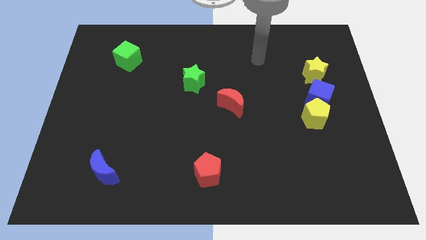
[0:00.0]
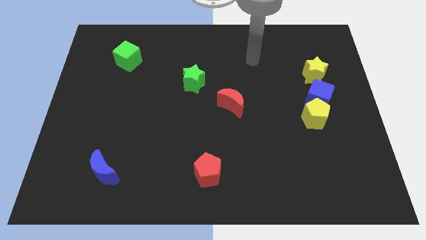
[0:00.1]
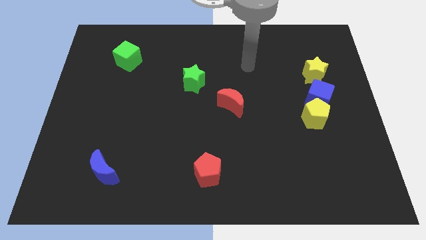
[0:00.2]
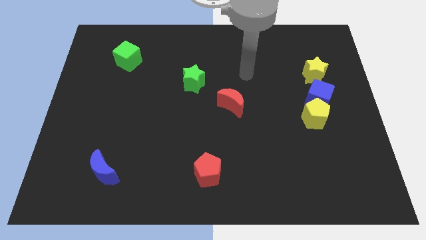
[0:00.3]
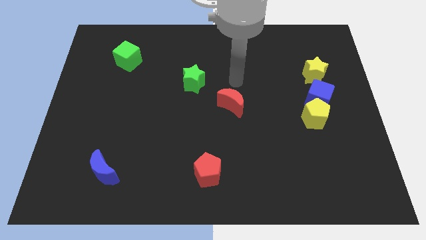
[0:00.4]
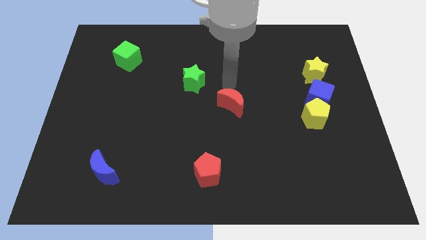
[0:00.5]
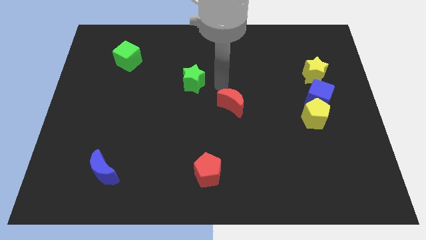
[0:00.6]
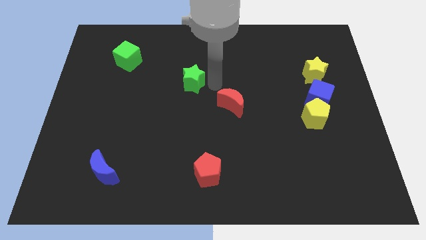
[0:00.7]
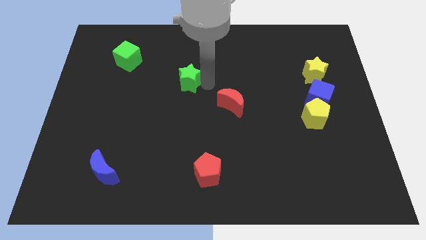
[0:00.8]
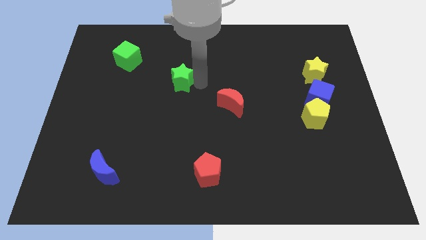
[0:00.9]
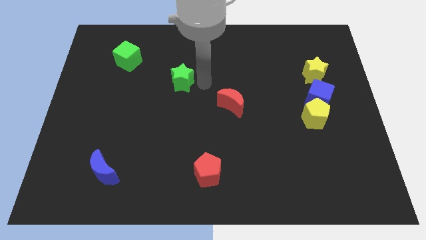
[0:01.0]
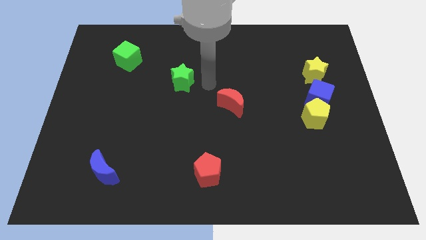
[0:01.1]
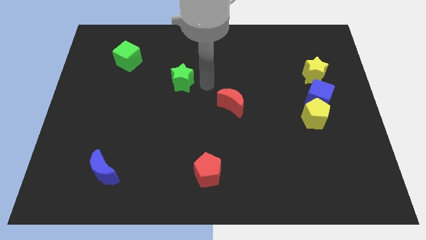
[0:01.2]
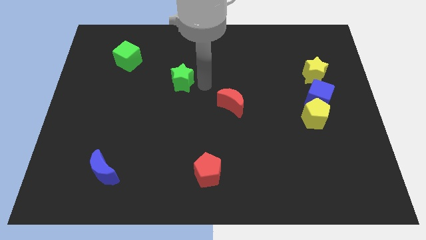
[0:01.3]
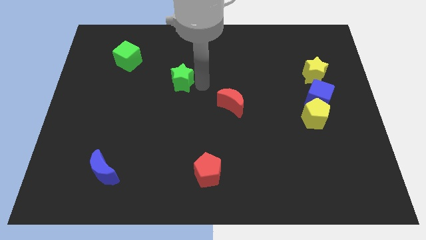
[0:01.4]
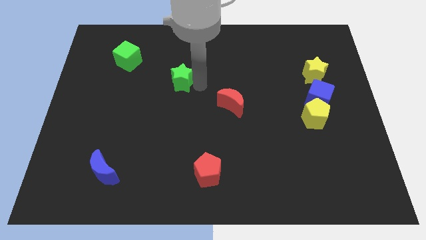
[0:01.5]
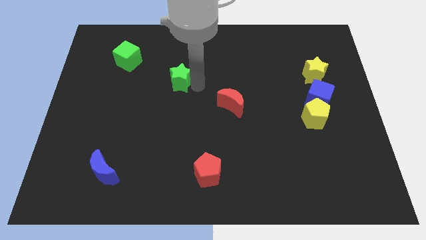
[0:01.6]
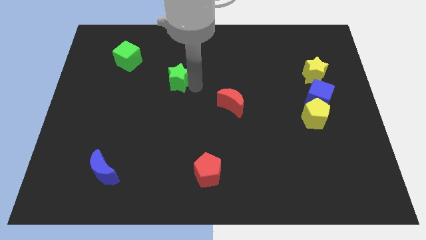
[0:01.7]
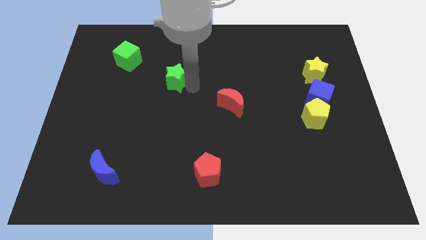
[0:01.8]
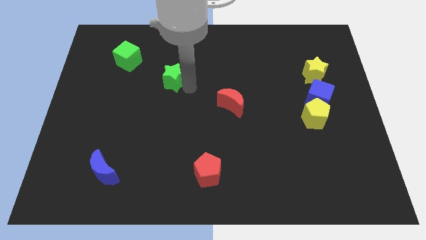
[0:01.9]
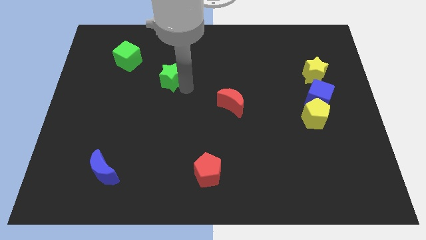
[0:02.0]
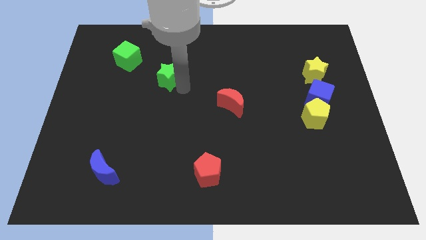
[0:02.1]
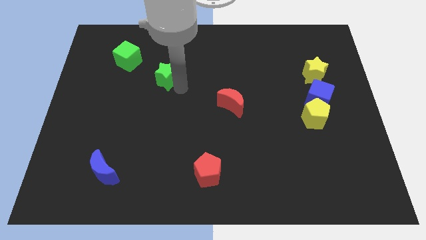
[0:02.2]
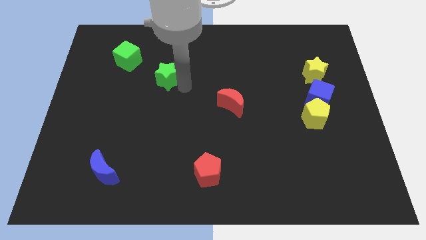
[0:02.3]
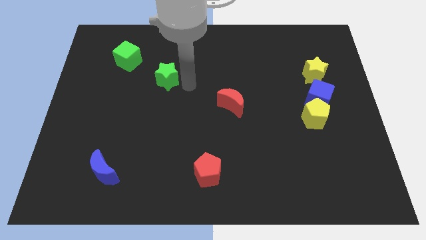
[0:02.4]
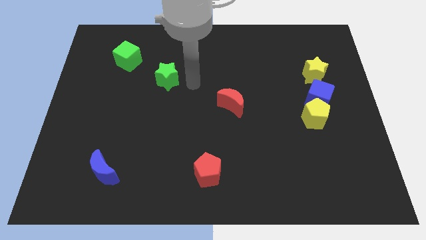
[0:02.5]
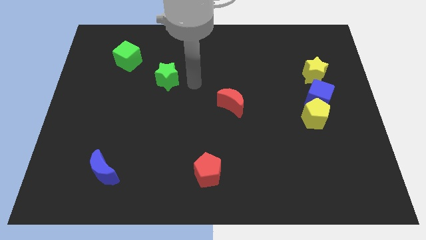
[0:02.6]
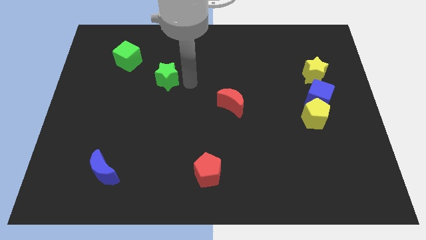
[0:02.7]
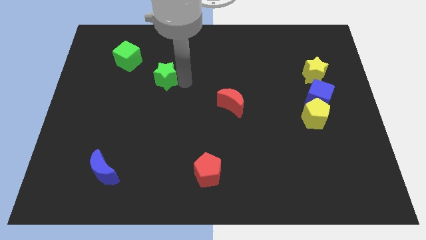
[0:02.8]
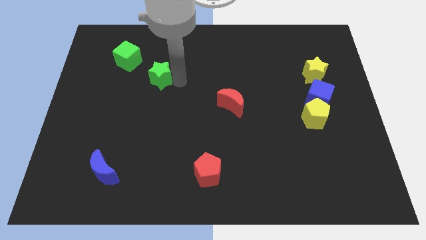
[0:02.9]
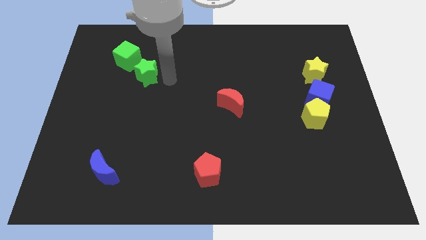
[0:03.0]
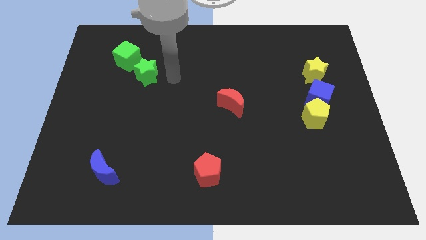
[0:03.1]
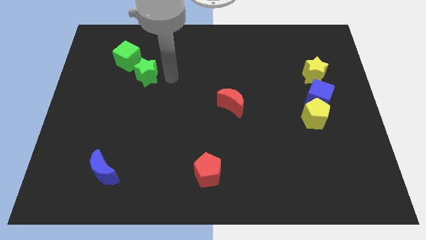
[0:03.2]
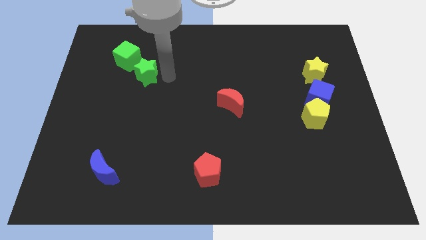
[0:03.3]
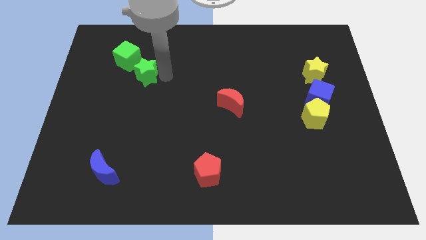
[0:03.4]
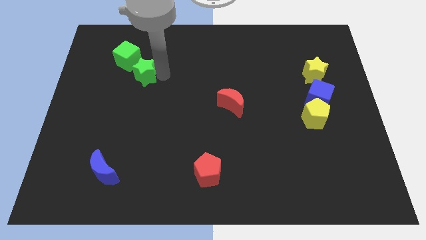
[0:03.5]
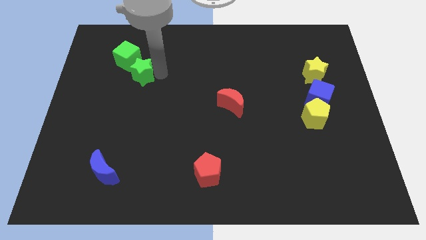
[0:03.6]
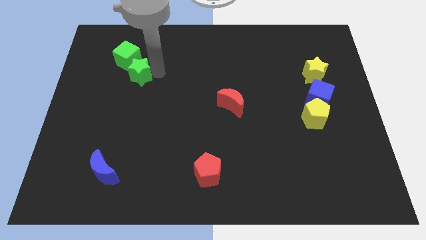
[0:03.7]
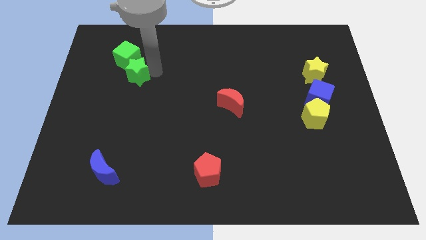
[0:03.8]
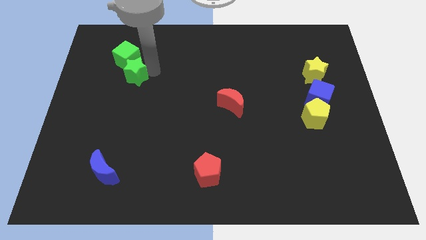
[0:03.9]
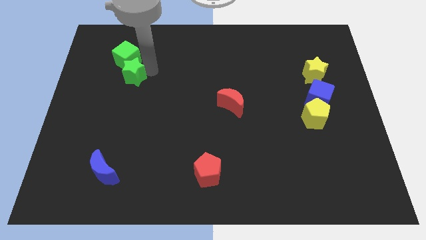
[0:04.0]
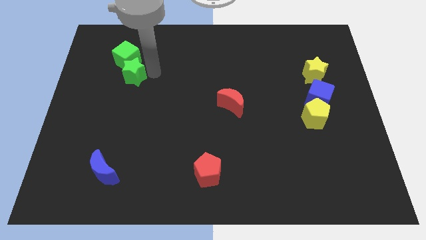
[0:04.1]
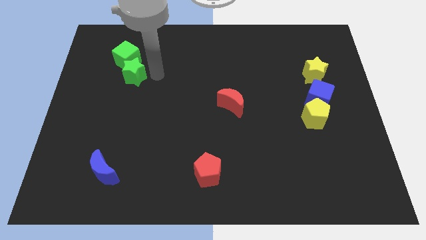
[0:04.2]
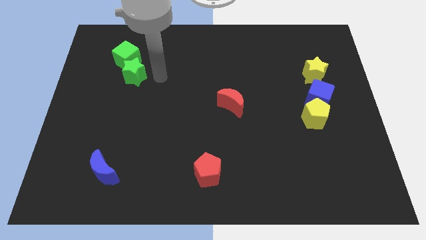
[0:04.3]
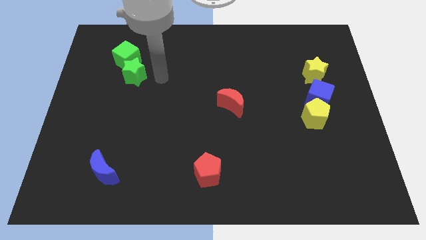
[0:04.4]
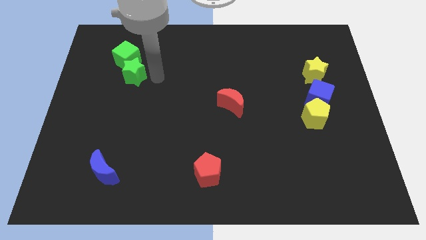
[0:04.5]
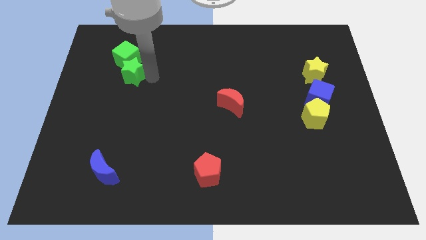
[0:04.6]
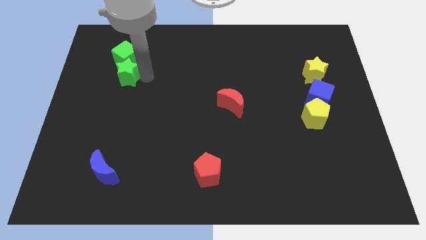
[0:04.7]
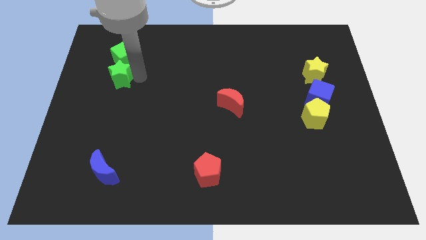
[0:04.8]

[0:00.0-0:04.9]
push the green star to the bottom left of the green cube

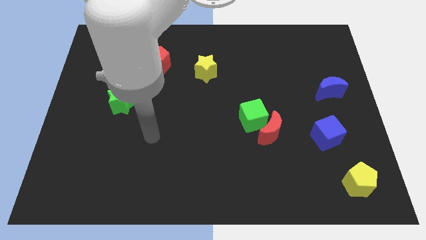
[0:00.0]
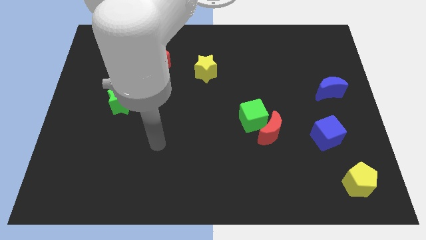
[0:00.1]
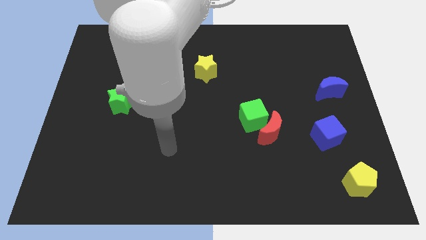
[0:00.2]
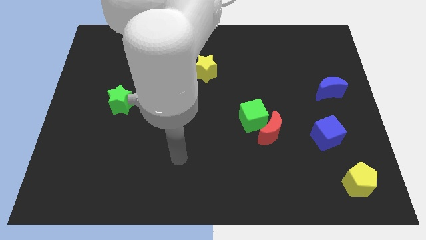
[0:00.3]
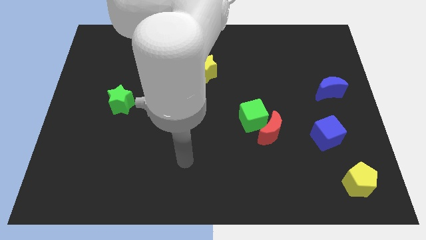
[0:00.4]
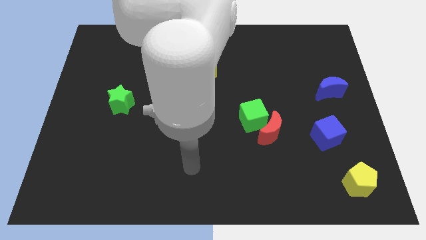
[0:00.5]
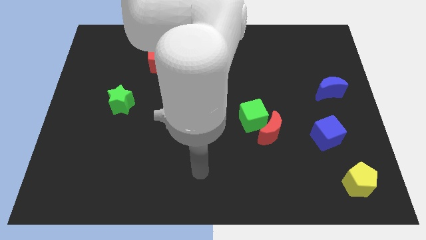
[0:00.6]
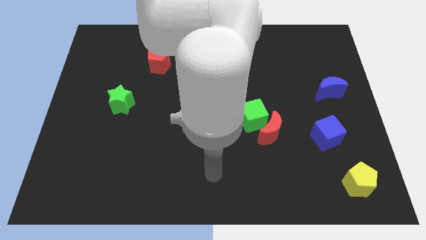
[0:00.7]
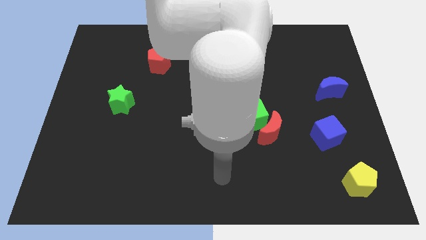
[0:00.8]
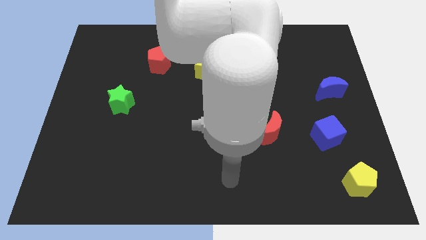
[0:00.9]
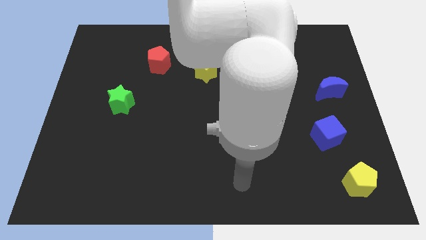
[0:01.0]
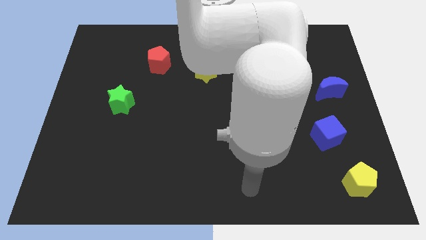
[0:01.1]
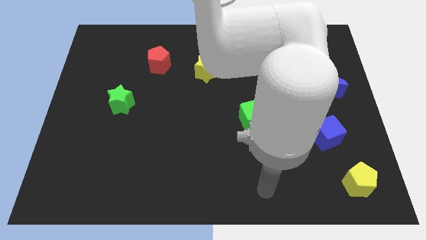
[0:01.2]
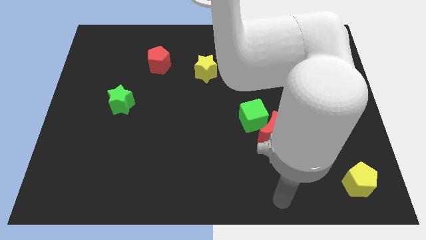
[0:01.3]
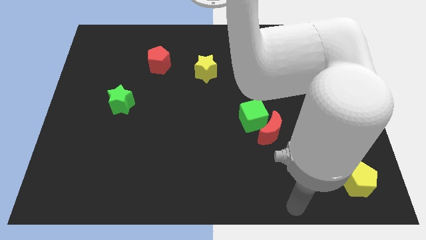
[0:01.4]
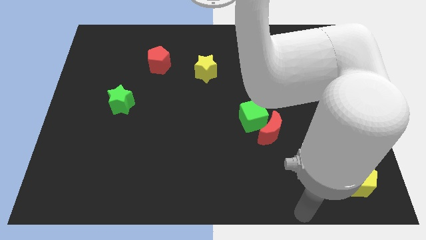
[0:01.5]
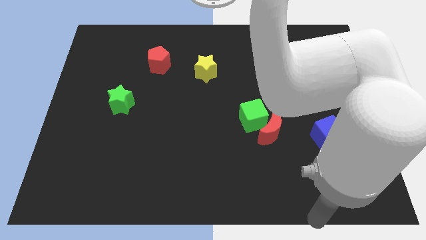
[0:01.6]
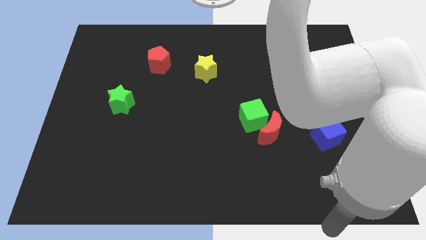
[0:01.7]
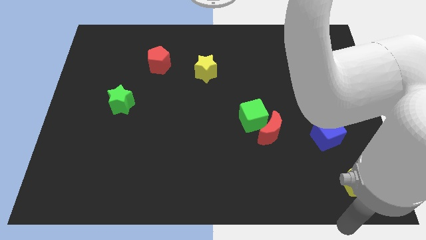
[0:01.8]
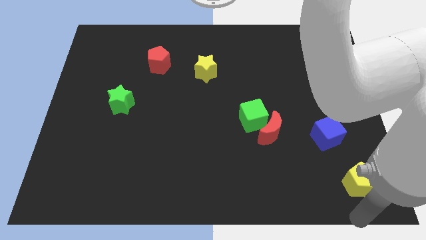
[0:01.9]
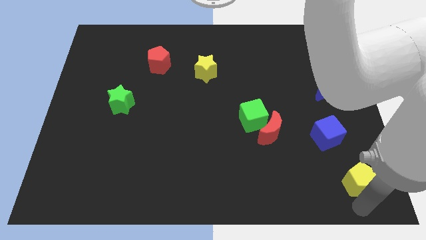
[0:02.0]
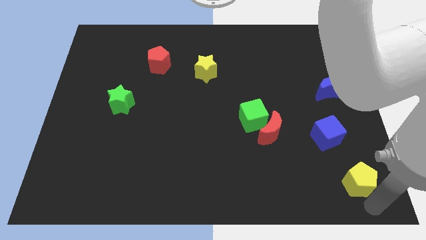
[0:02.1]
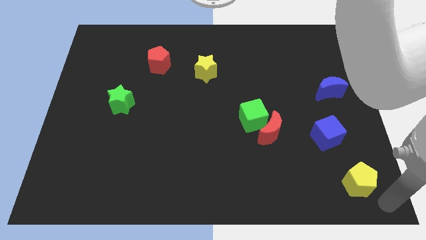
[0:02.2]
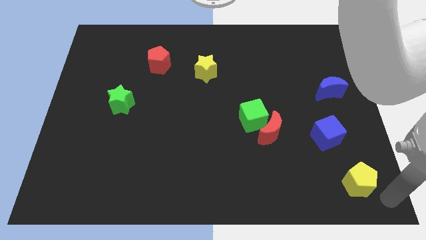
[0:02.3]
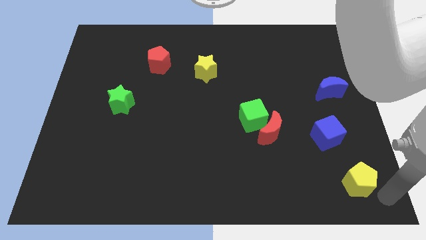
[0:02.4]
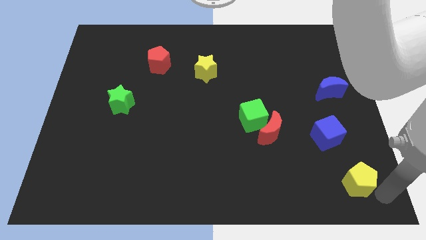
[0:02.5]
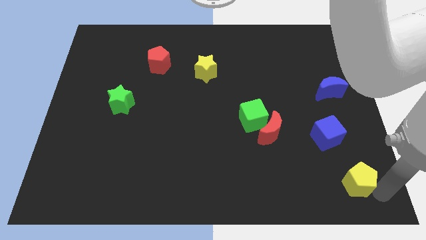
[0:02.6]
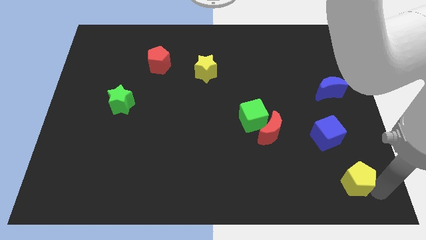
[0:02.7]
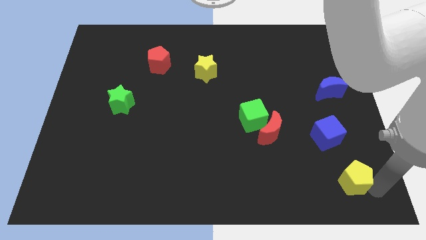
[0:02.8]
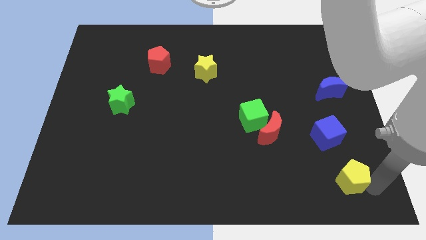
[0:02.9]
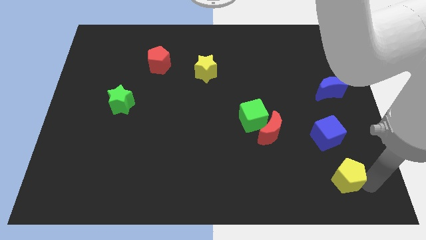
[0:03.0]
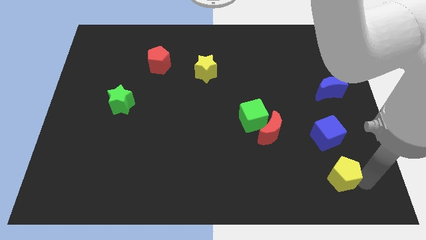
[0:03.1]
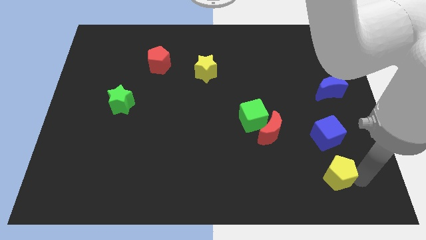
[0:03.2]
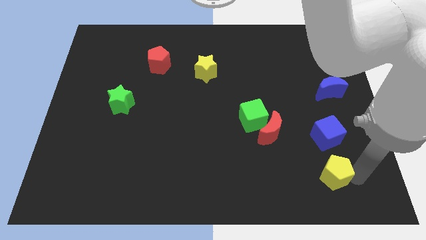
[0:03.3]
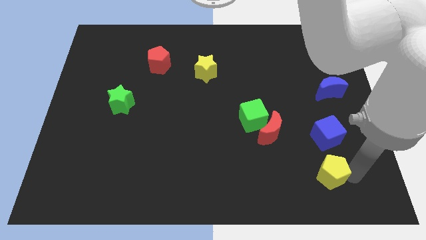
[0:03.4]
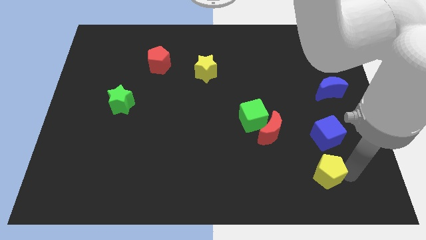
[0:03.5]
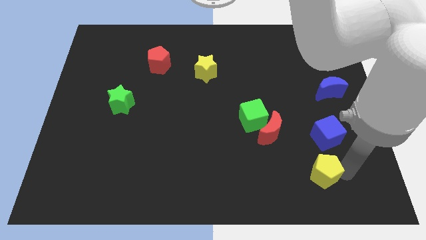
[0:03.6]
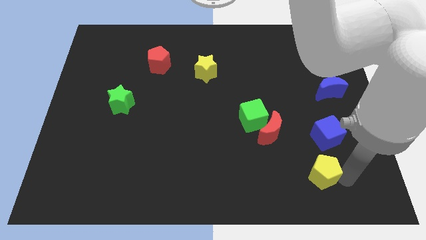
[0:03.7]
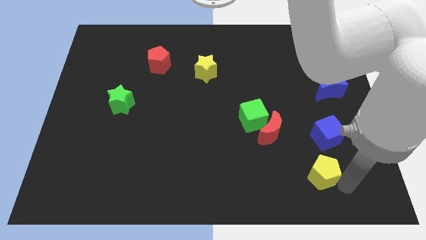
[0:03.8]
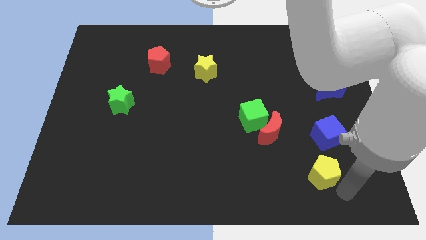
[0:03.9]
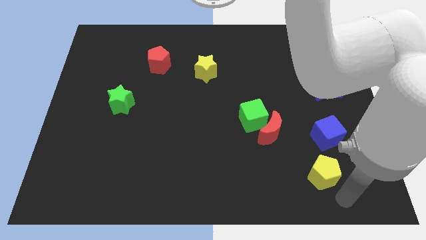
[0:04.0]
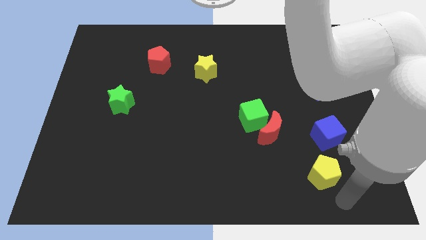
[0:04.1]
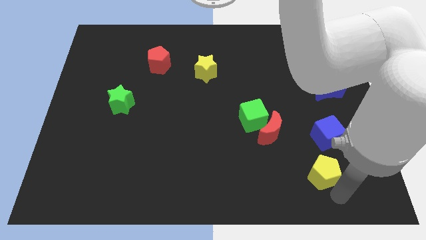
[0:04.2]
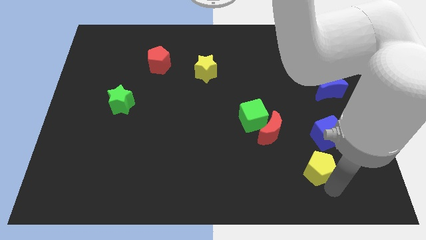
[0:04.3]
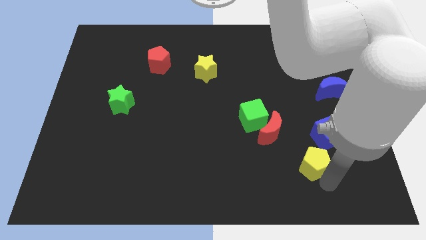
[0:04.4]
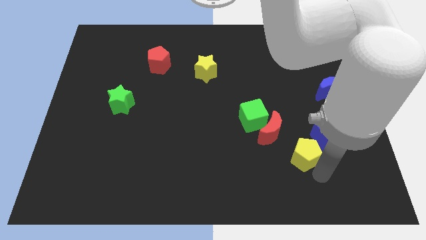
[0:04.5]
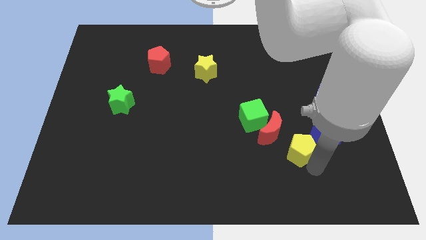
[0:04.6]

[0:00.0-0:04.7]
push the yellow pentagon to the bottom right side of the green cube
